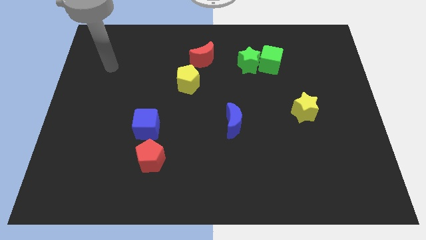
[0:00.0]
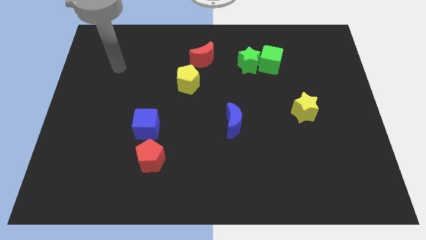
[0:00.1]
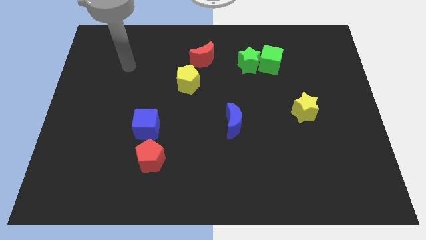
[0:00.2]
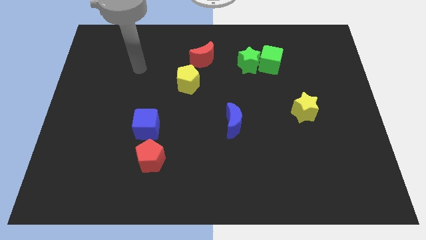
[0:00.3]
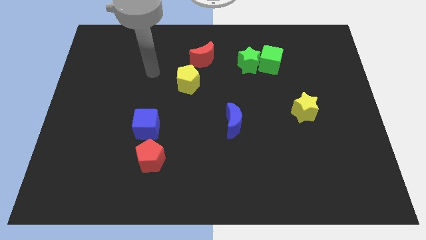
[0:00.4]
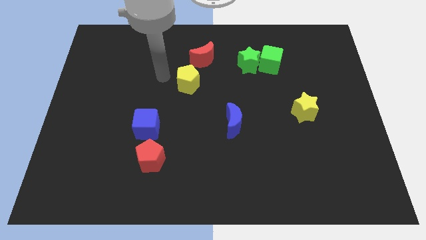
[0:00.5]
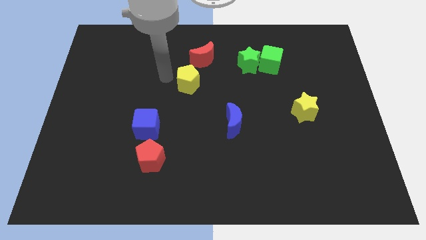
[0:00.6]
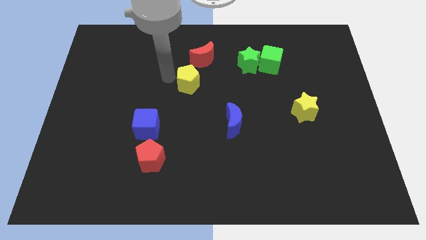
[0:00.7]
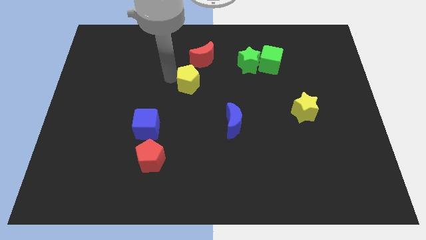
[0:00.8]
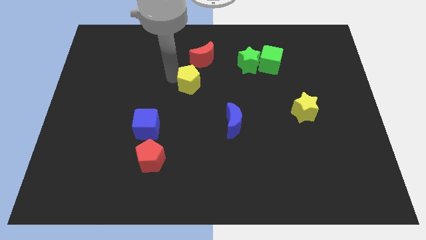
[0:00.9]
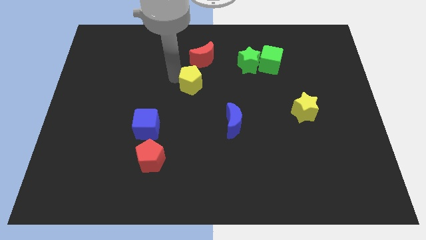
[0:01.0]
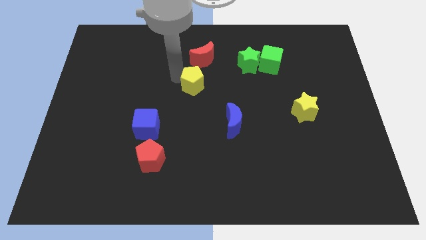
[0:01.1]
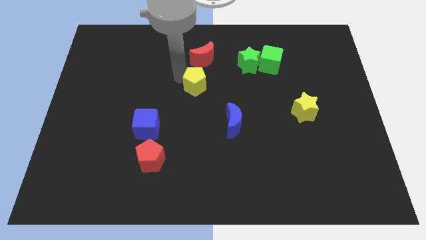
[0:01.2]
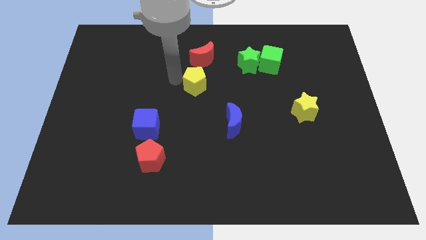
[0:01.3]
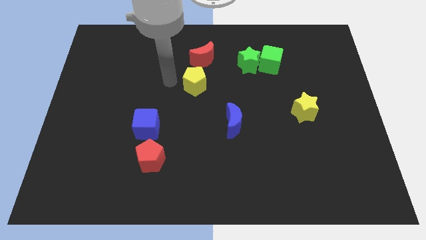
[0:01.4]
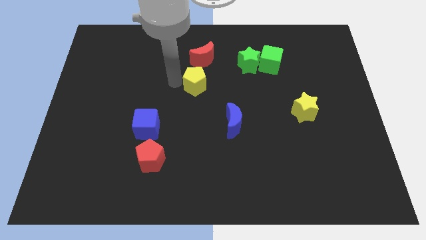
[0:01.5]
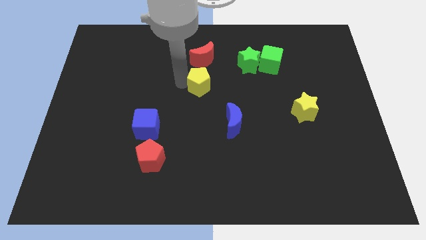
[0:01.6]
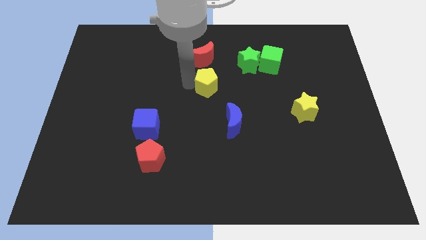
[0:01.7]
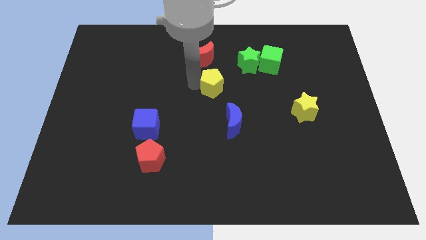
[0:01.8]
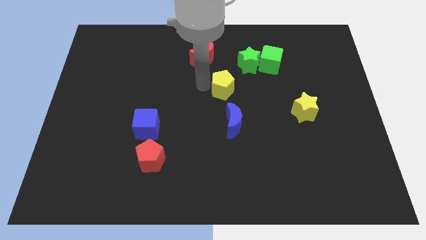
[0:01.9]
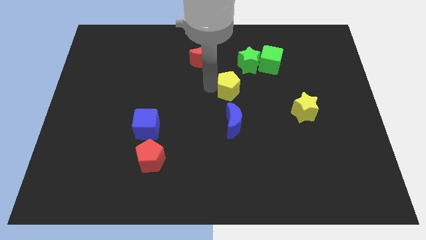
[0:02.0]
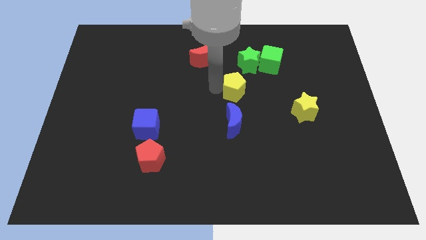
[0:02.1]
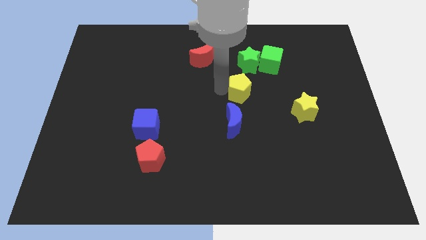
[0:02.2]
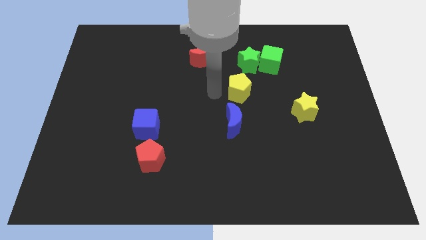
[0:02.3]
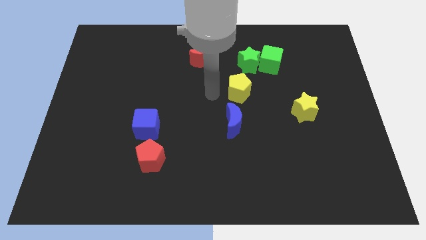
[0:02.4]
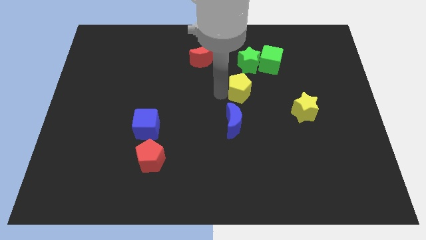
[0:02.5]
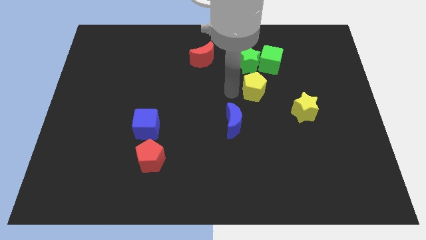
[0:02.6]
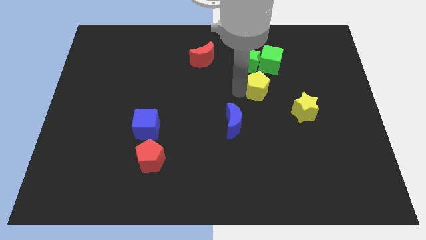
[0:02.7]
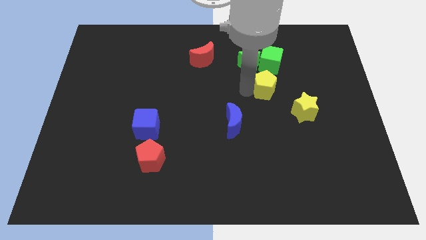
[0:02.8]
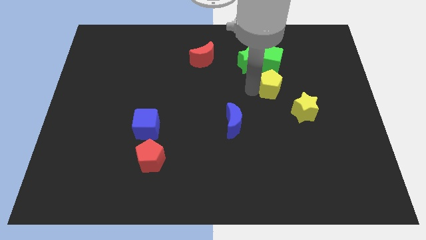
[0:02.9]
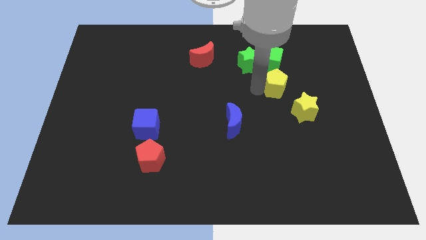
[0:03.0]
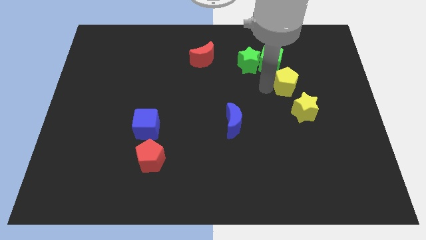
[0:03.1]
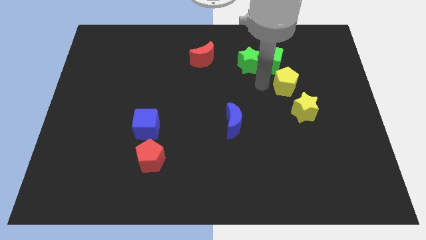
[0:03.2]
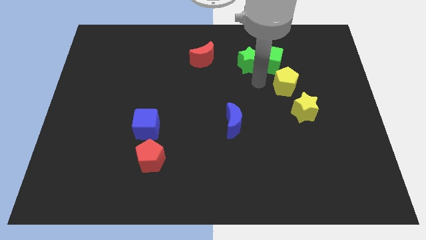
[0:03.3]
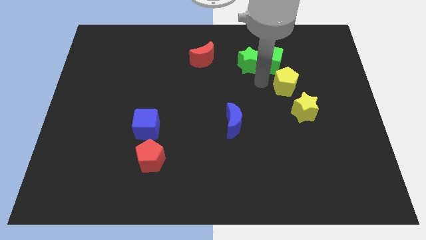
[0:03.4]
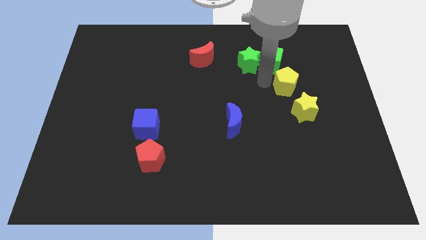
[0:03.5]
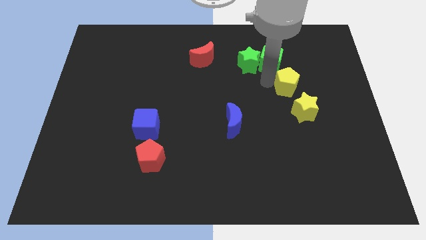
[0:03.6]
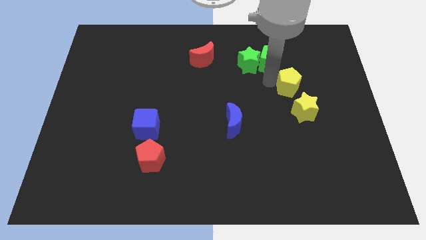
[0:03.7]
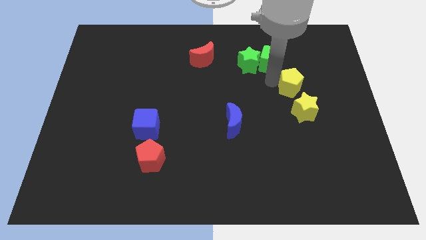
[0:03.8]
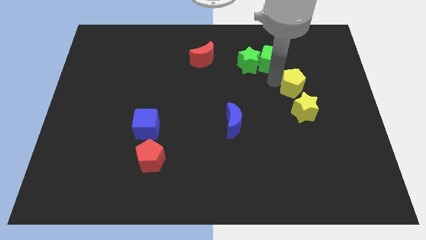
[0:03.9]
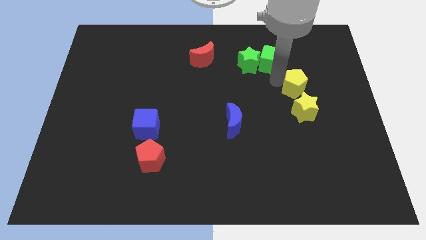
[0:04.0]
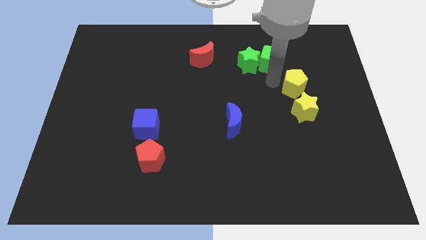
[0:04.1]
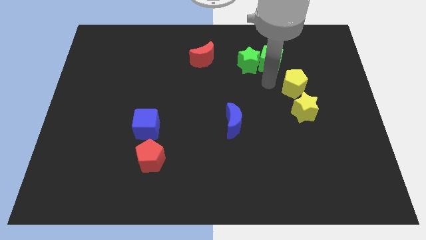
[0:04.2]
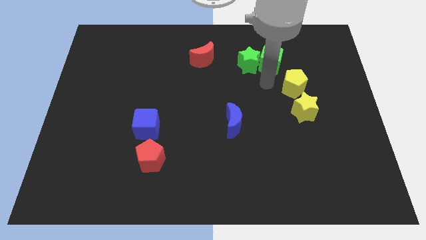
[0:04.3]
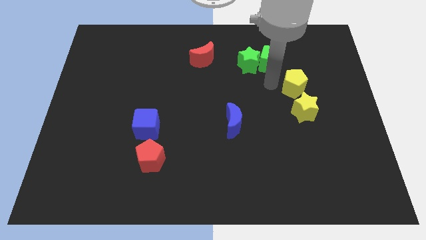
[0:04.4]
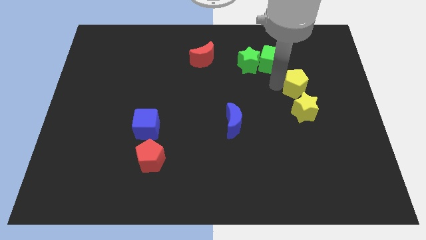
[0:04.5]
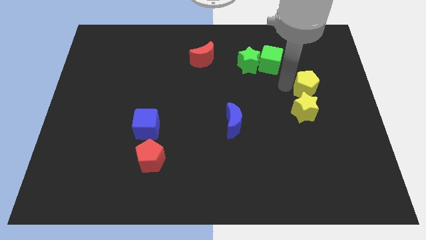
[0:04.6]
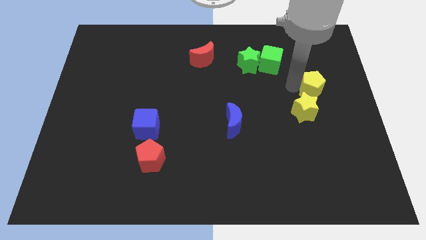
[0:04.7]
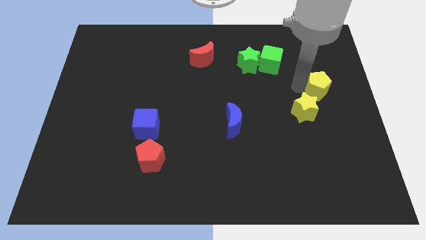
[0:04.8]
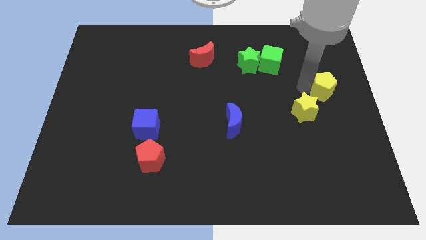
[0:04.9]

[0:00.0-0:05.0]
move the yellow pentagon to the right side

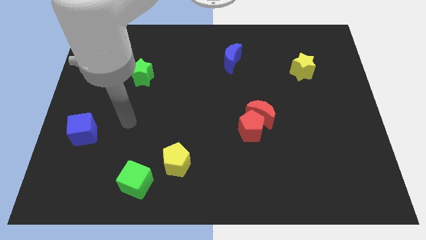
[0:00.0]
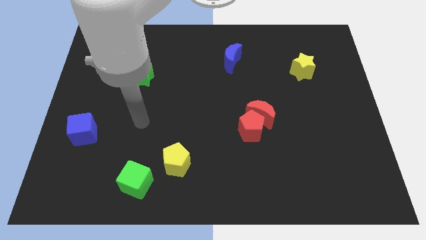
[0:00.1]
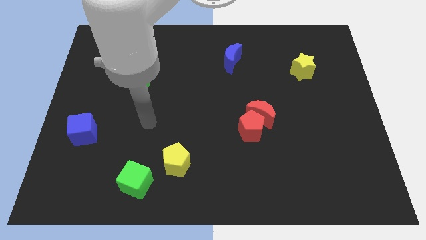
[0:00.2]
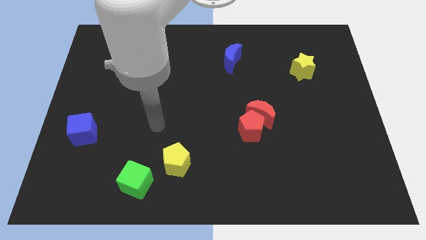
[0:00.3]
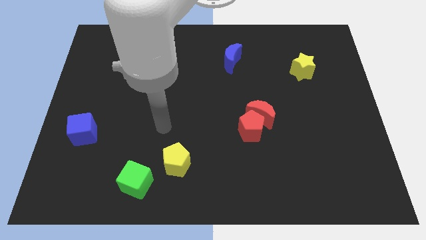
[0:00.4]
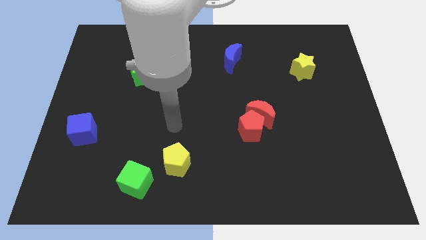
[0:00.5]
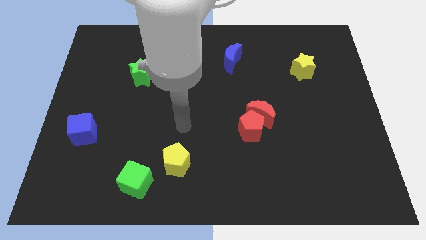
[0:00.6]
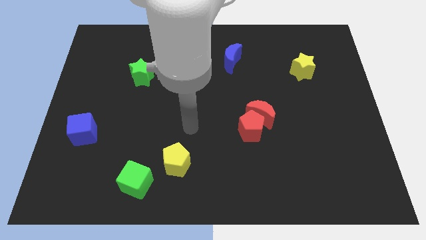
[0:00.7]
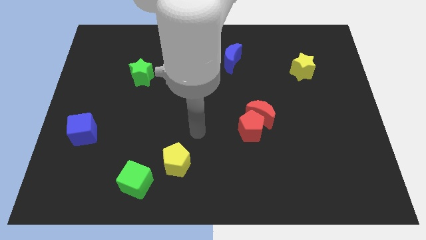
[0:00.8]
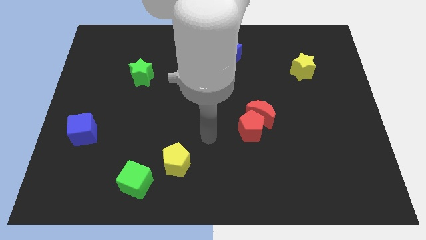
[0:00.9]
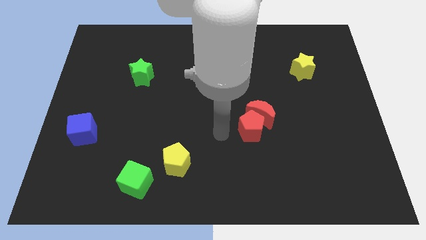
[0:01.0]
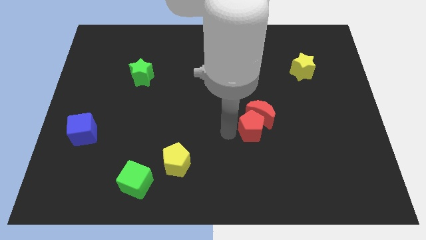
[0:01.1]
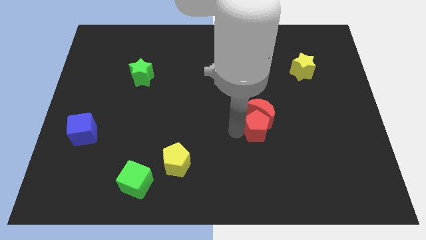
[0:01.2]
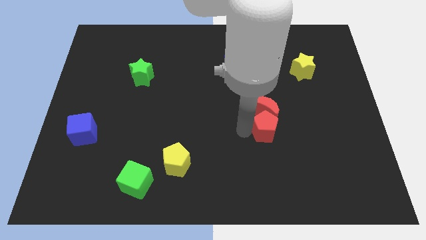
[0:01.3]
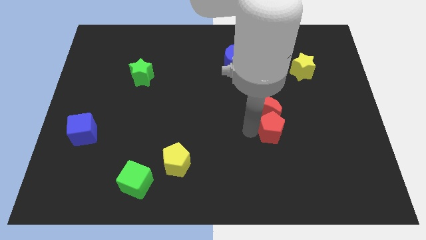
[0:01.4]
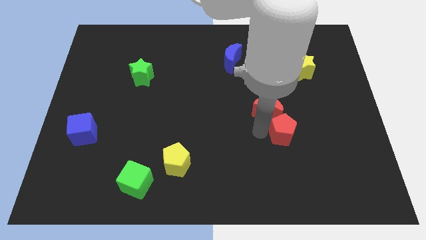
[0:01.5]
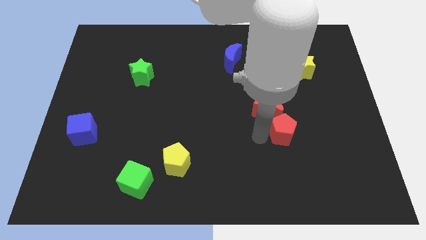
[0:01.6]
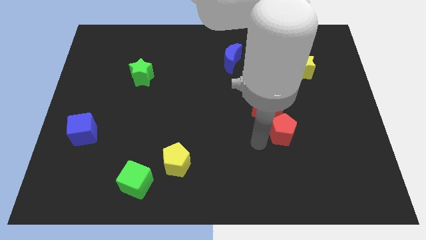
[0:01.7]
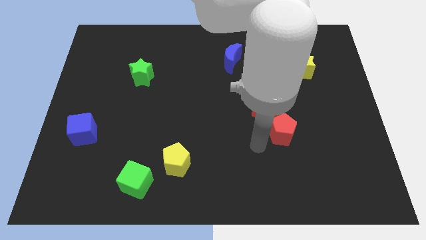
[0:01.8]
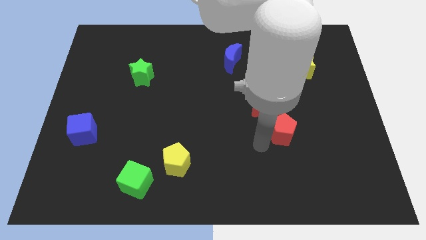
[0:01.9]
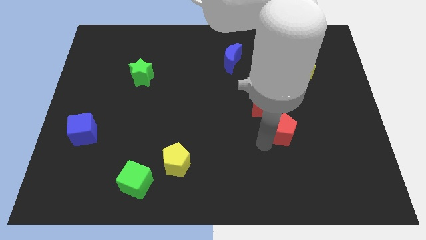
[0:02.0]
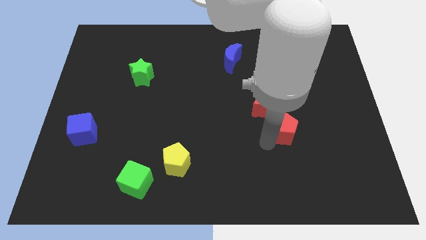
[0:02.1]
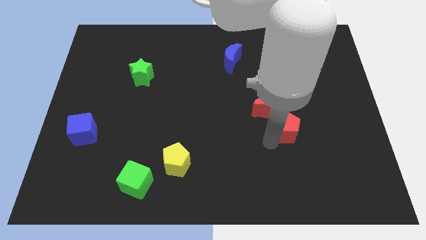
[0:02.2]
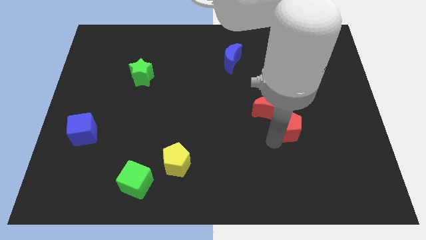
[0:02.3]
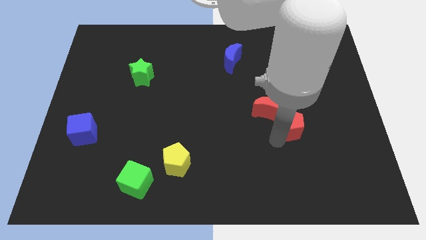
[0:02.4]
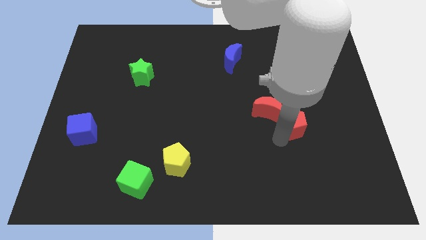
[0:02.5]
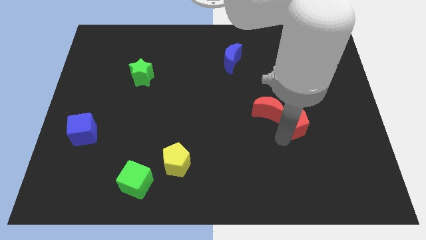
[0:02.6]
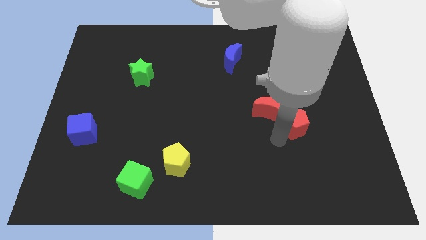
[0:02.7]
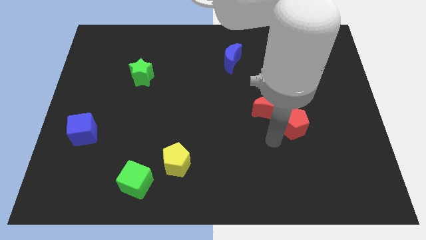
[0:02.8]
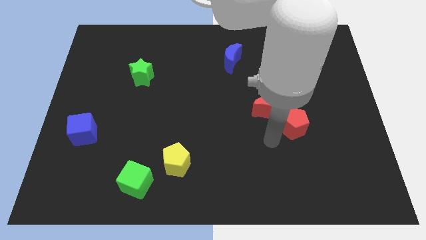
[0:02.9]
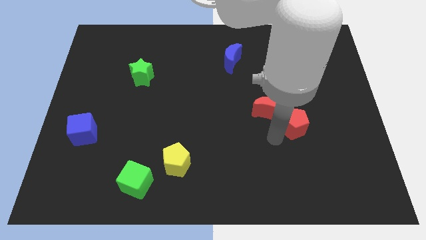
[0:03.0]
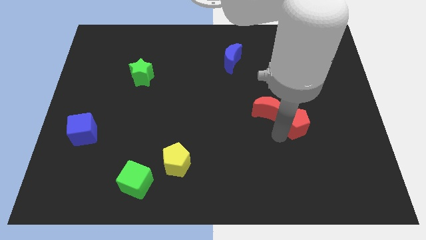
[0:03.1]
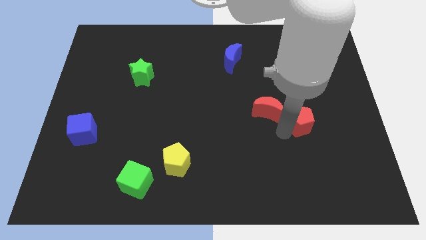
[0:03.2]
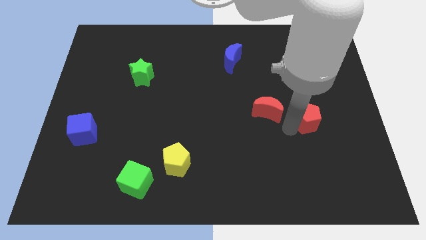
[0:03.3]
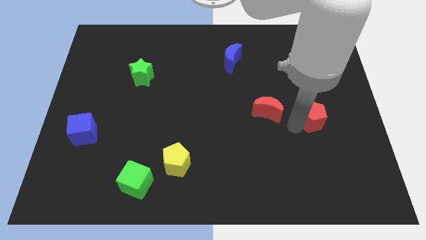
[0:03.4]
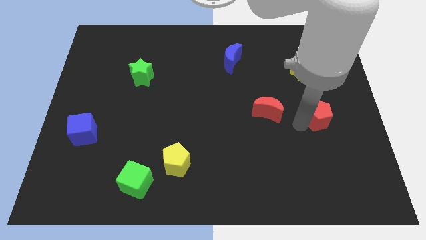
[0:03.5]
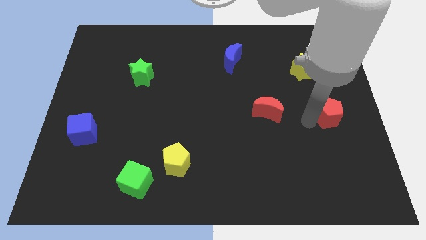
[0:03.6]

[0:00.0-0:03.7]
slide the red pentagon to the right side
